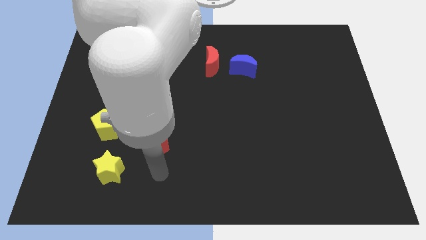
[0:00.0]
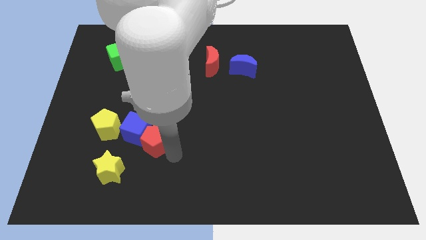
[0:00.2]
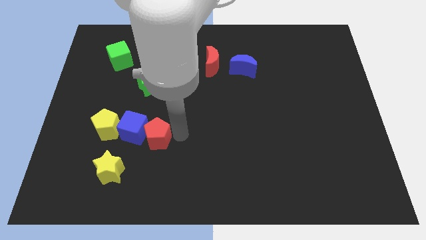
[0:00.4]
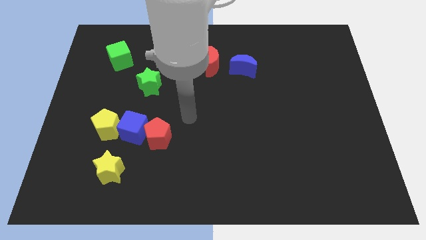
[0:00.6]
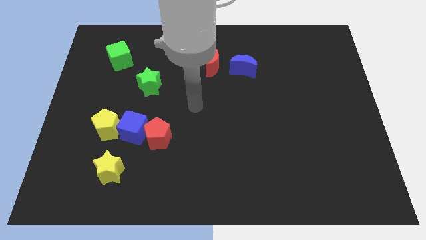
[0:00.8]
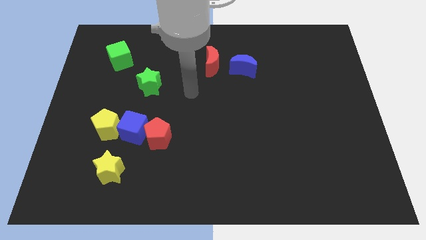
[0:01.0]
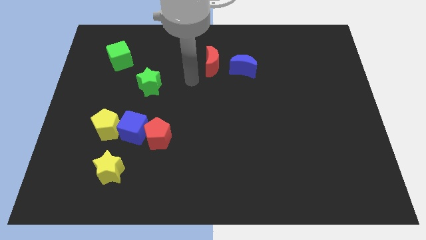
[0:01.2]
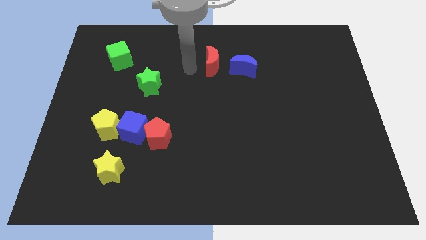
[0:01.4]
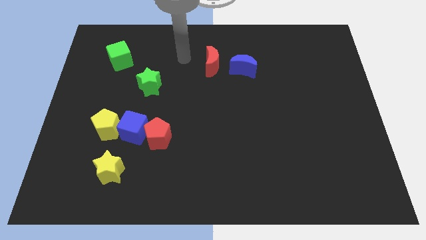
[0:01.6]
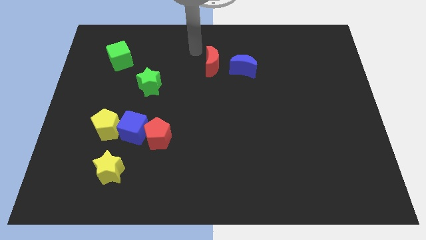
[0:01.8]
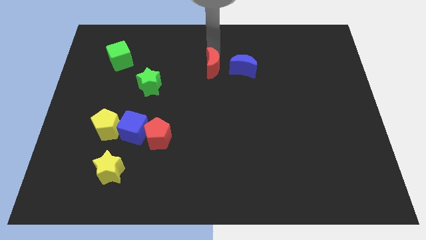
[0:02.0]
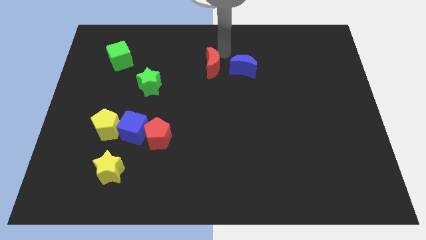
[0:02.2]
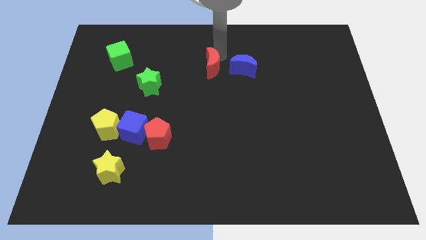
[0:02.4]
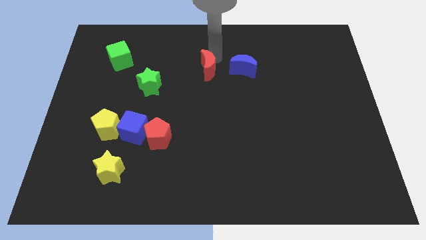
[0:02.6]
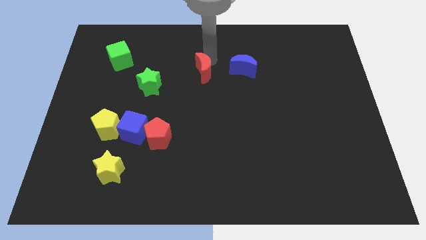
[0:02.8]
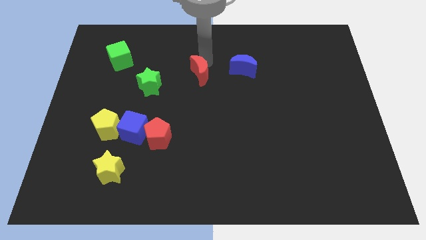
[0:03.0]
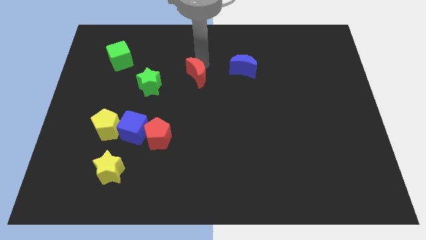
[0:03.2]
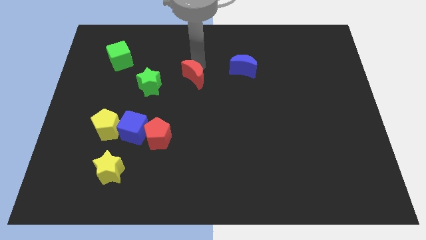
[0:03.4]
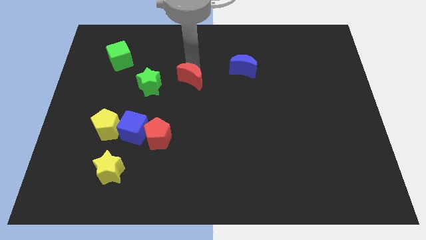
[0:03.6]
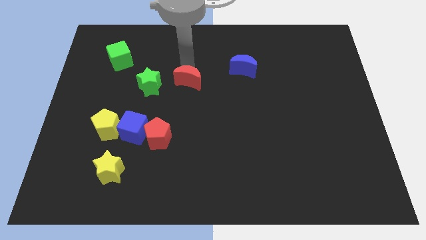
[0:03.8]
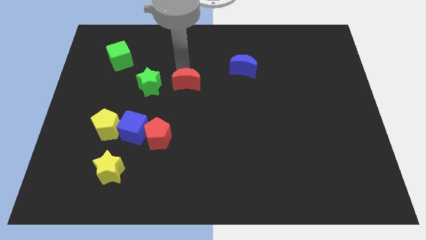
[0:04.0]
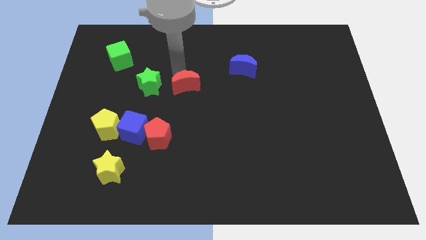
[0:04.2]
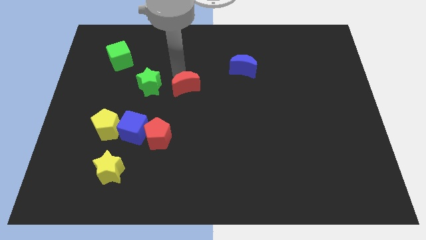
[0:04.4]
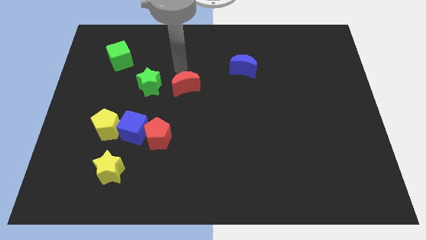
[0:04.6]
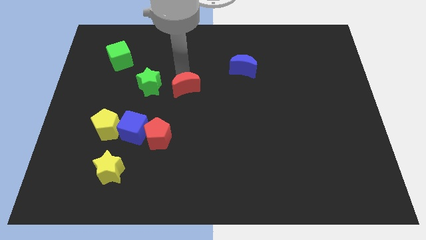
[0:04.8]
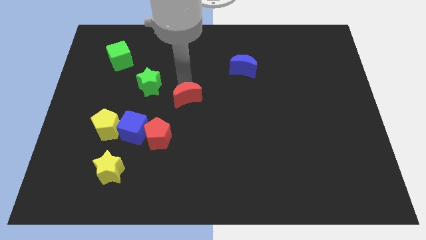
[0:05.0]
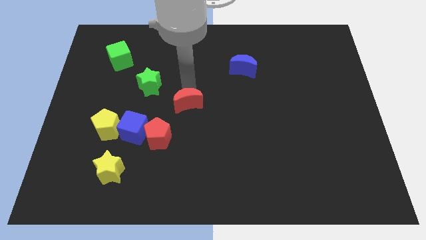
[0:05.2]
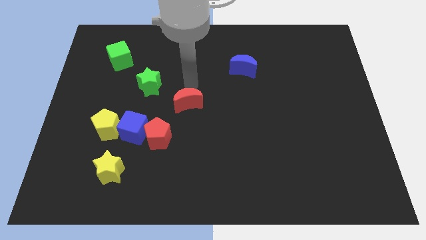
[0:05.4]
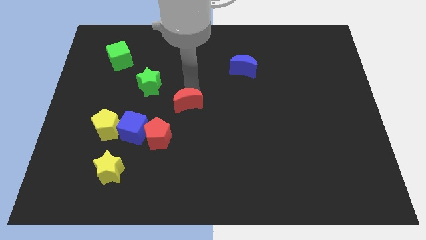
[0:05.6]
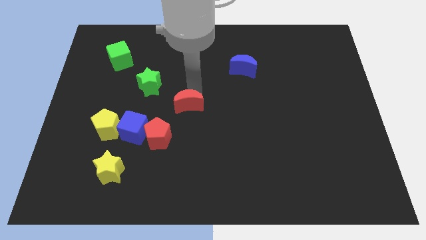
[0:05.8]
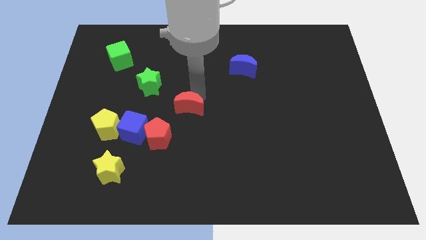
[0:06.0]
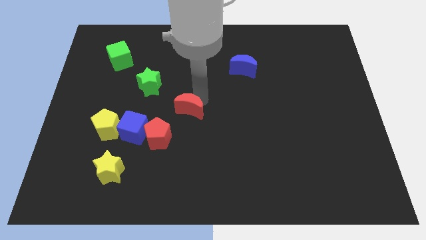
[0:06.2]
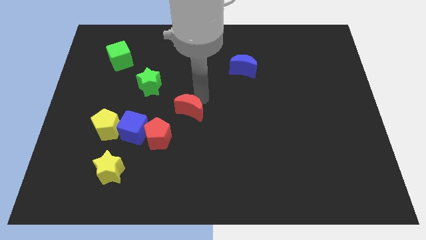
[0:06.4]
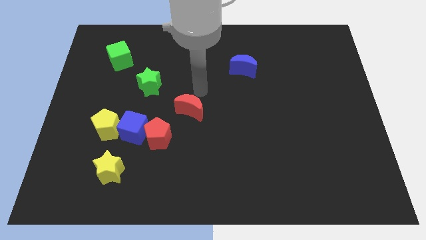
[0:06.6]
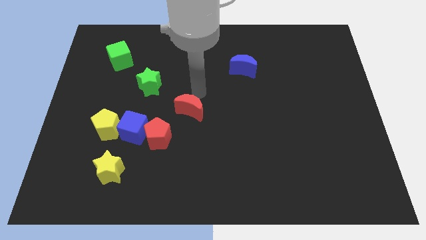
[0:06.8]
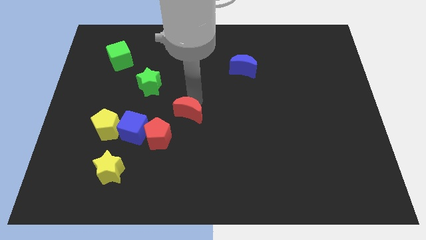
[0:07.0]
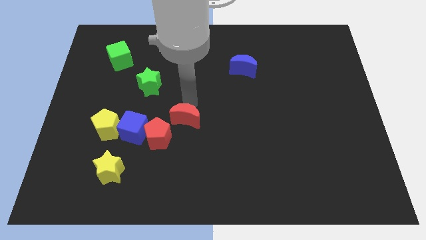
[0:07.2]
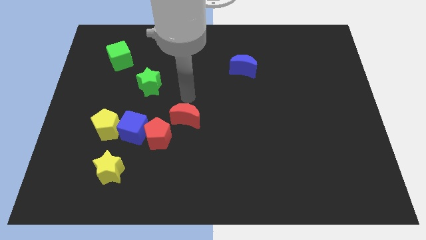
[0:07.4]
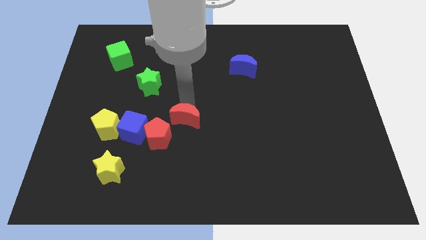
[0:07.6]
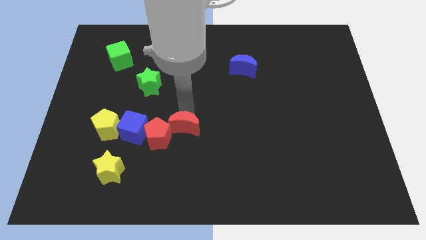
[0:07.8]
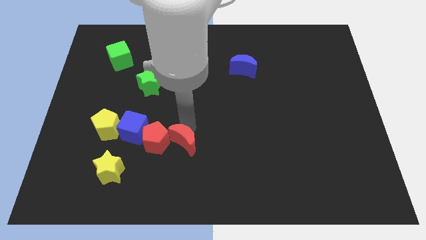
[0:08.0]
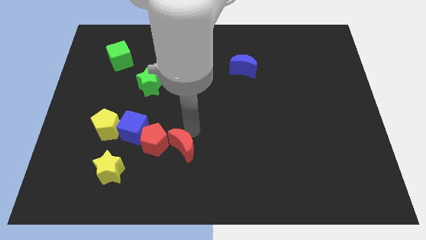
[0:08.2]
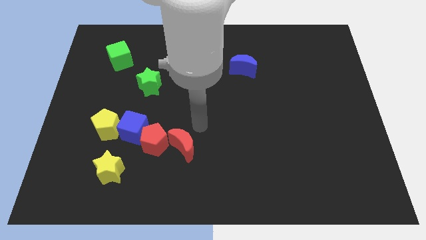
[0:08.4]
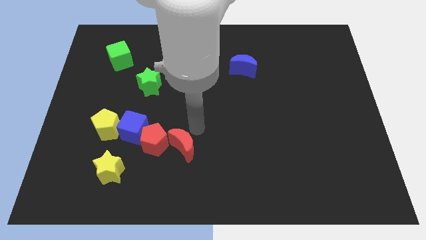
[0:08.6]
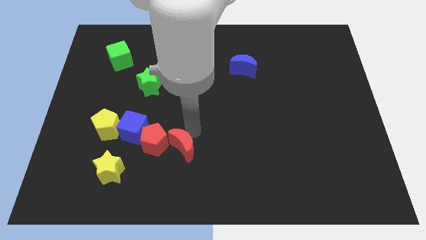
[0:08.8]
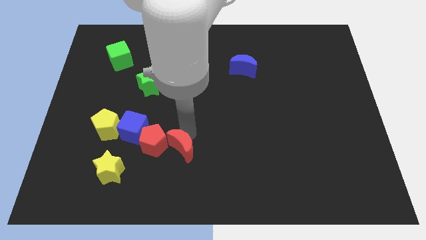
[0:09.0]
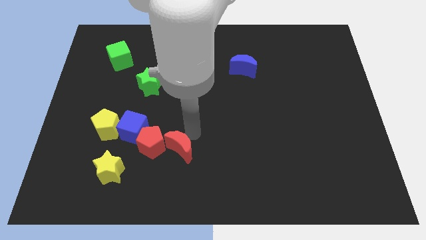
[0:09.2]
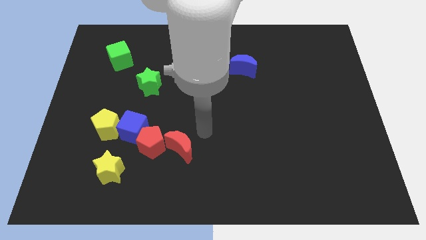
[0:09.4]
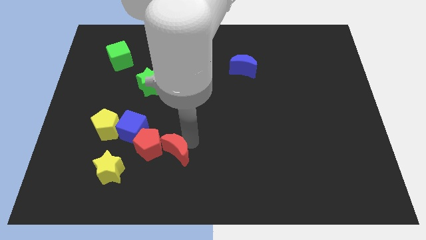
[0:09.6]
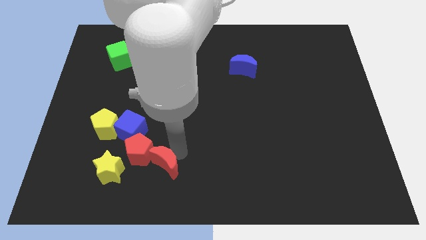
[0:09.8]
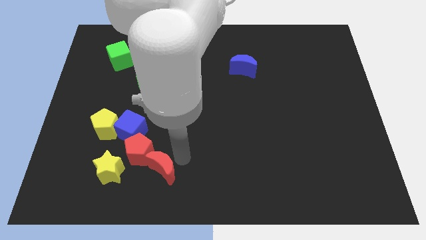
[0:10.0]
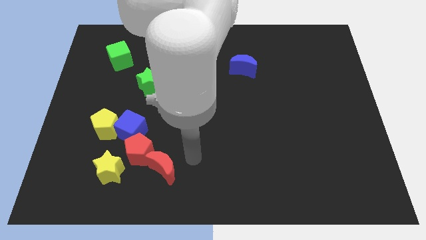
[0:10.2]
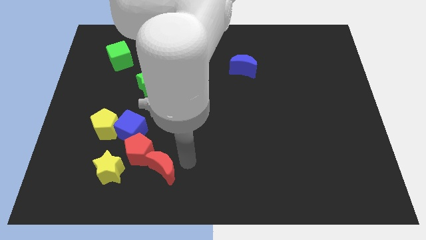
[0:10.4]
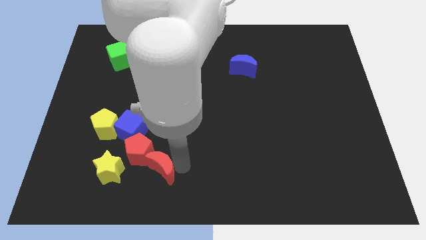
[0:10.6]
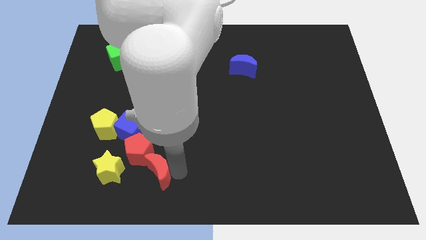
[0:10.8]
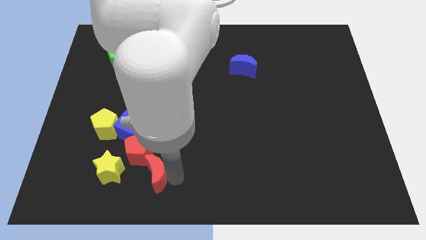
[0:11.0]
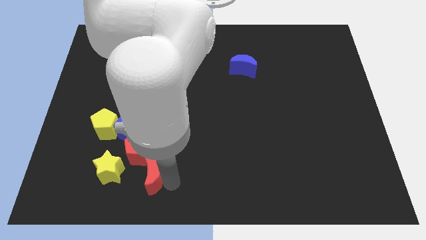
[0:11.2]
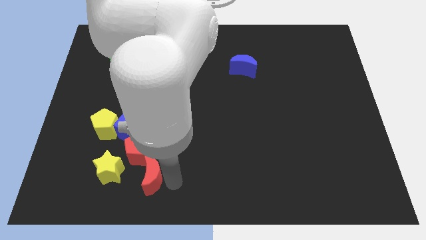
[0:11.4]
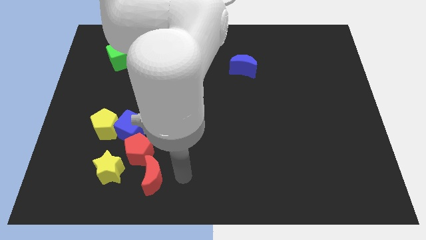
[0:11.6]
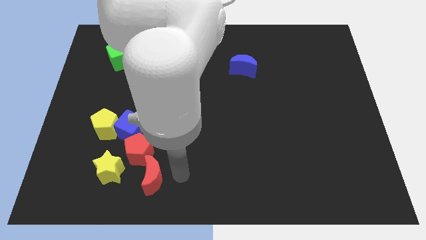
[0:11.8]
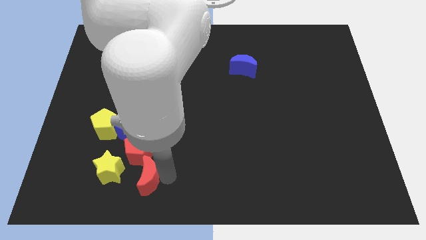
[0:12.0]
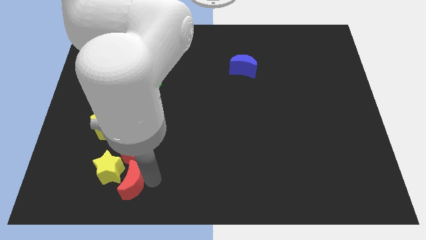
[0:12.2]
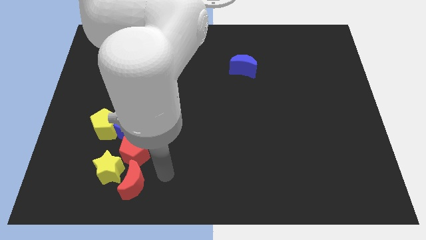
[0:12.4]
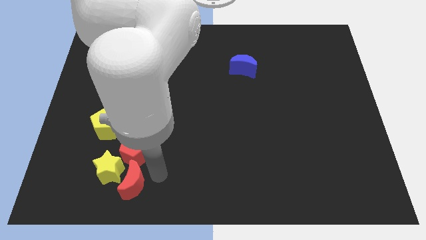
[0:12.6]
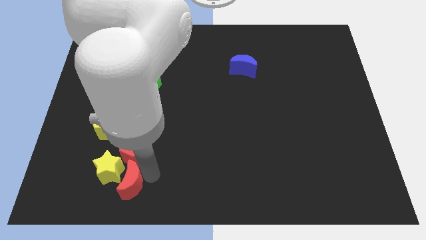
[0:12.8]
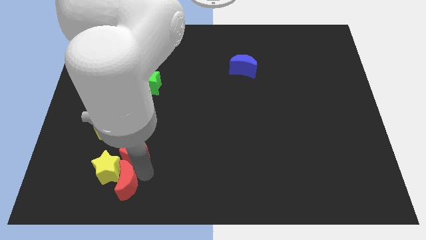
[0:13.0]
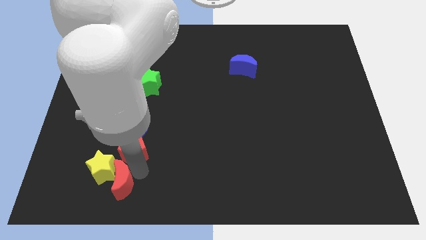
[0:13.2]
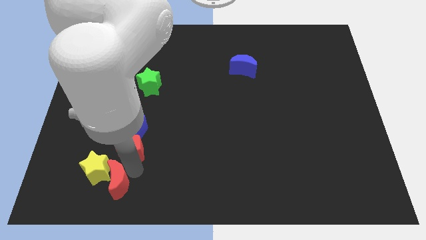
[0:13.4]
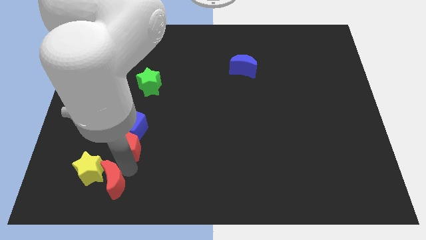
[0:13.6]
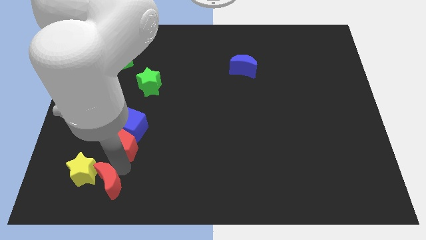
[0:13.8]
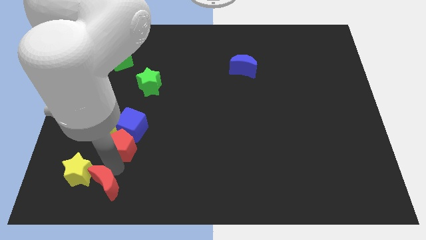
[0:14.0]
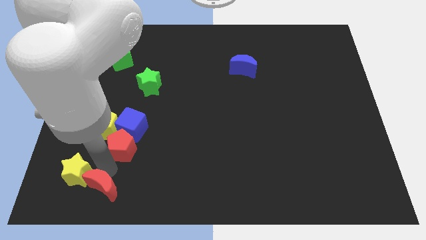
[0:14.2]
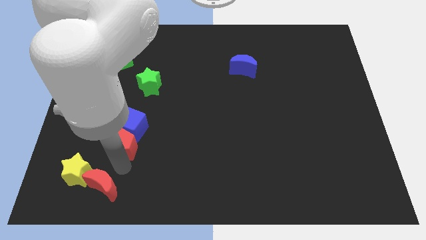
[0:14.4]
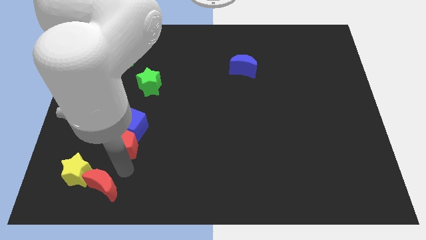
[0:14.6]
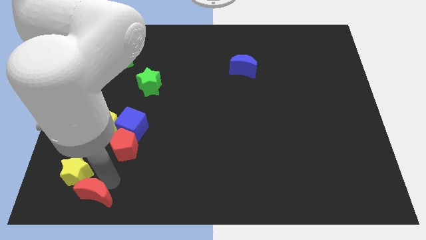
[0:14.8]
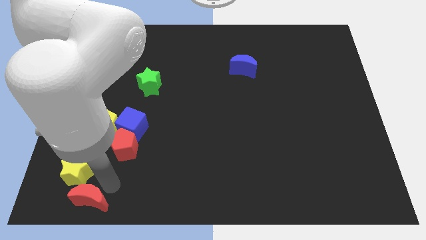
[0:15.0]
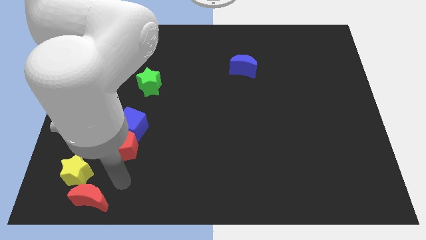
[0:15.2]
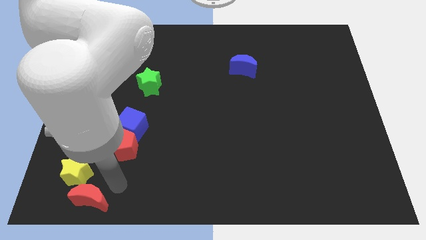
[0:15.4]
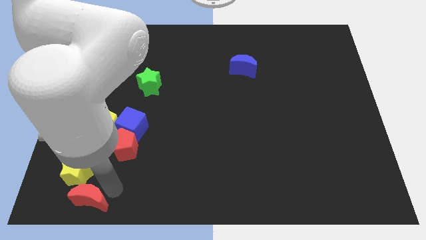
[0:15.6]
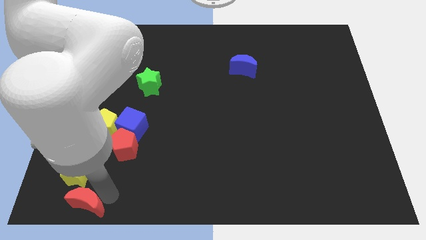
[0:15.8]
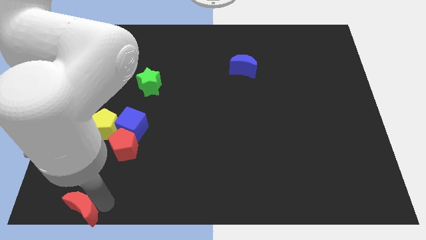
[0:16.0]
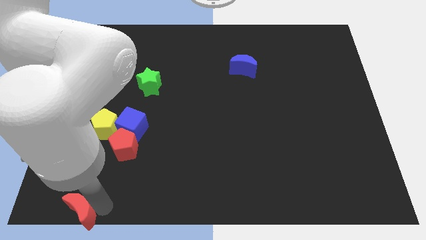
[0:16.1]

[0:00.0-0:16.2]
push the red moon to the bottom left of the board
